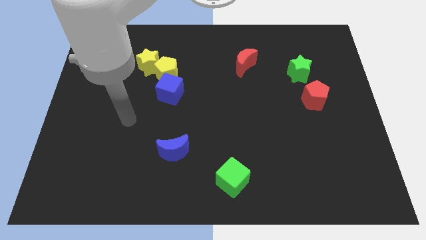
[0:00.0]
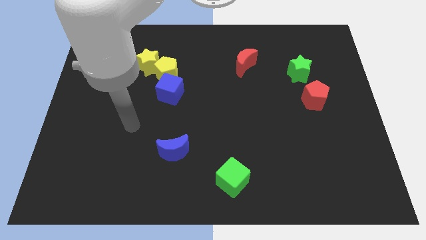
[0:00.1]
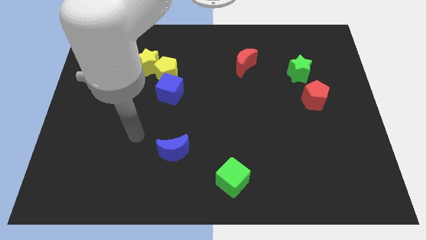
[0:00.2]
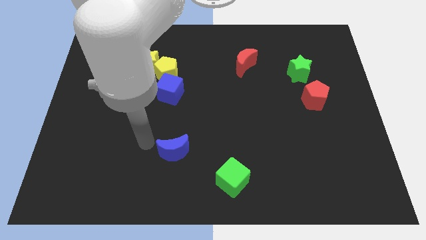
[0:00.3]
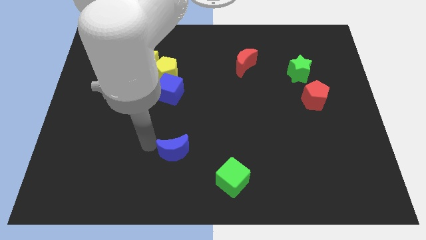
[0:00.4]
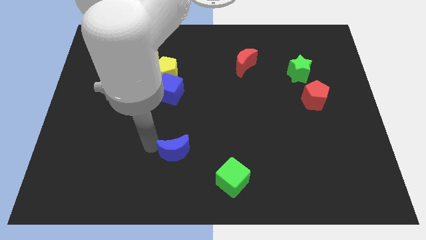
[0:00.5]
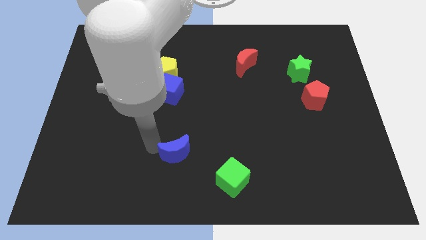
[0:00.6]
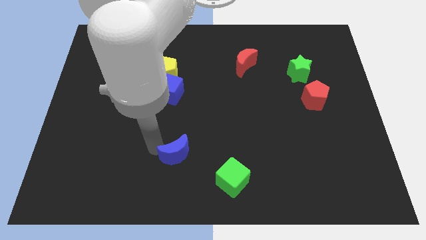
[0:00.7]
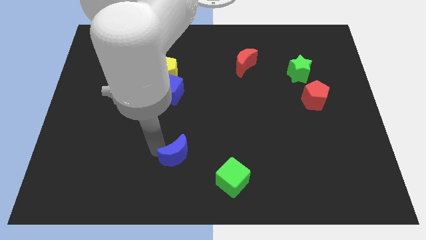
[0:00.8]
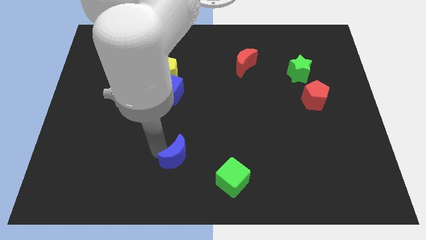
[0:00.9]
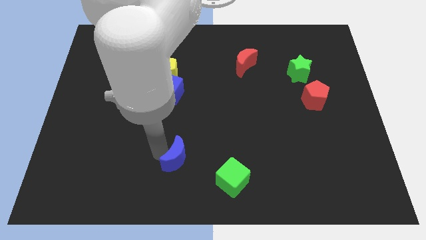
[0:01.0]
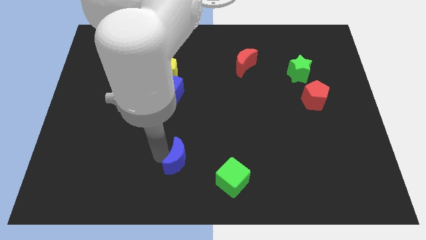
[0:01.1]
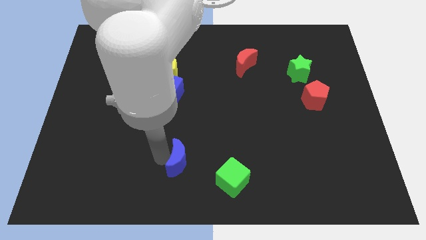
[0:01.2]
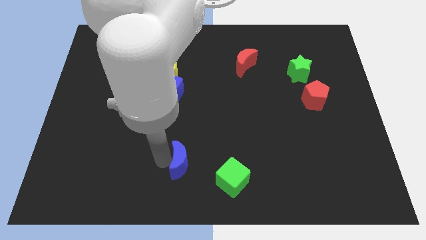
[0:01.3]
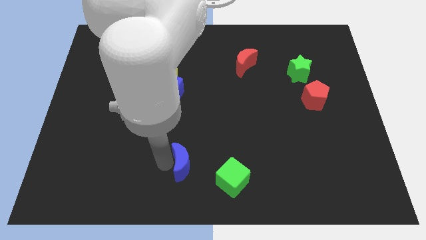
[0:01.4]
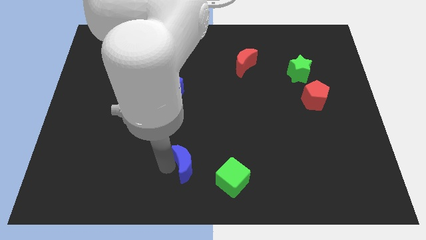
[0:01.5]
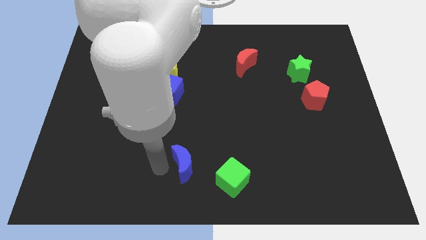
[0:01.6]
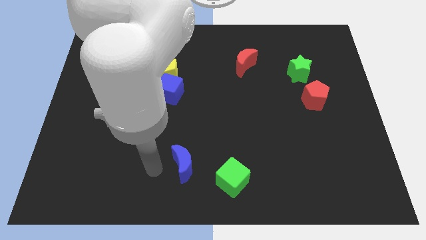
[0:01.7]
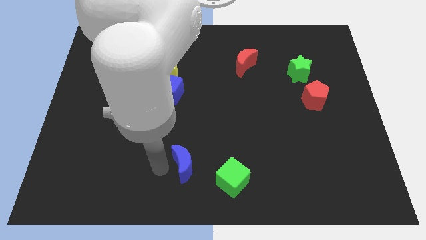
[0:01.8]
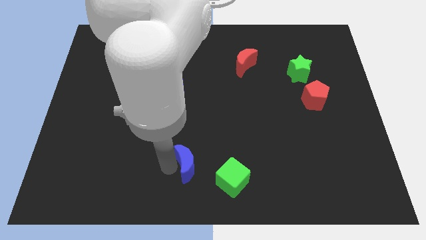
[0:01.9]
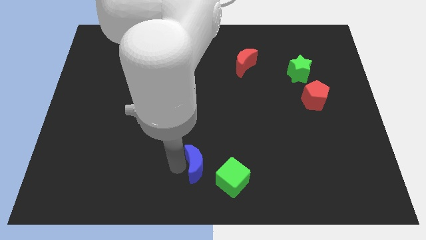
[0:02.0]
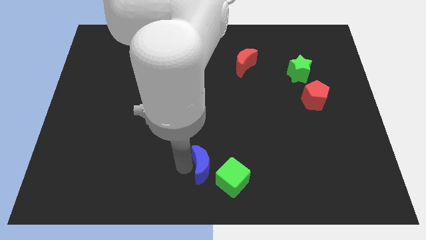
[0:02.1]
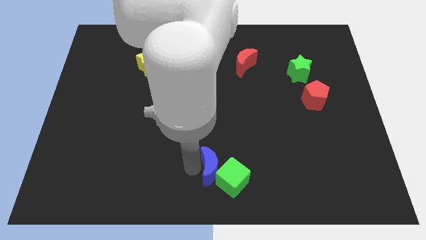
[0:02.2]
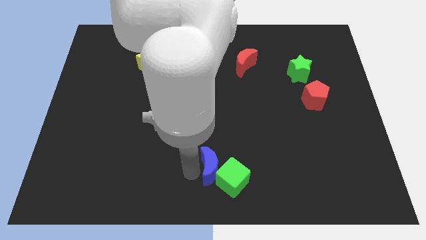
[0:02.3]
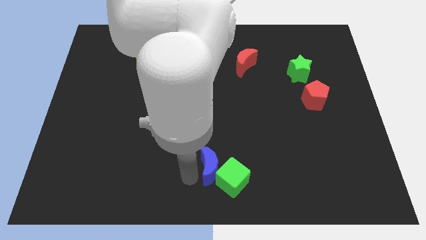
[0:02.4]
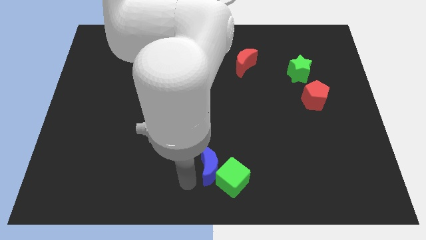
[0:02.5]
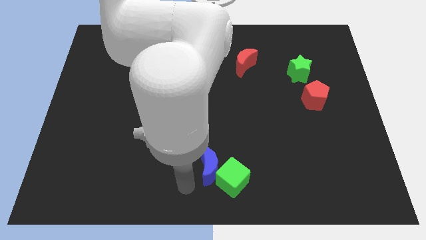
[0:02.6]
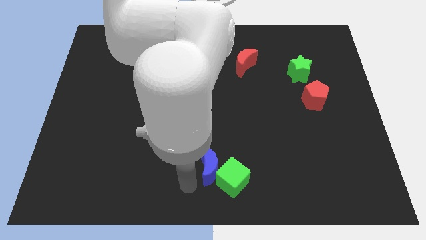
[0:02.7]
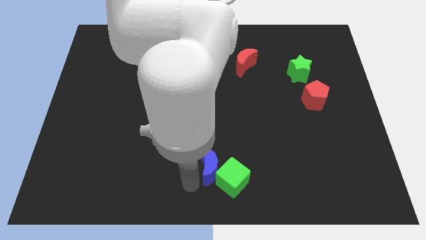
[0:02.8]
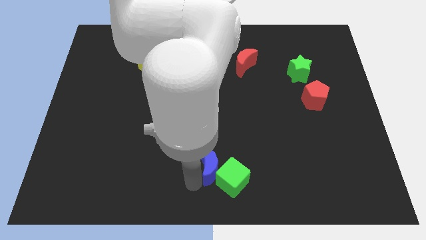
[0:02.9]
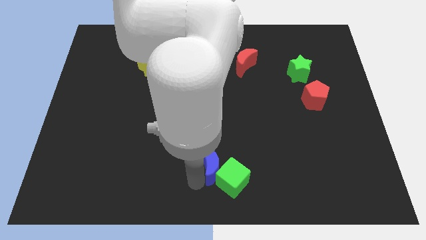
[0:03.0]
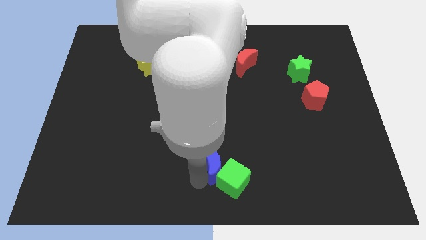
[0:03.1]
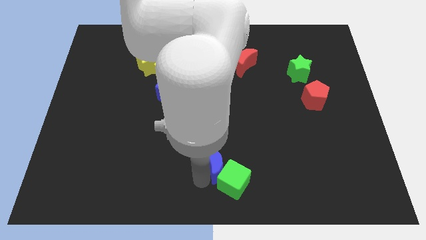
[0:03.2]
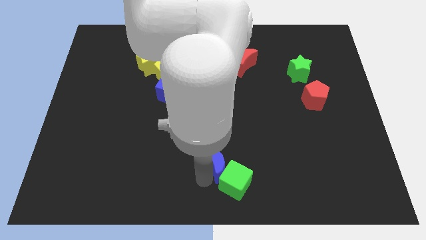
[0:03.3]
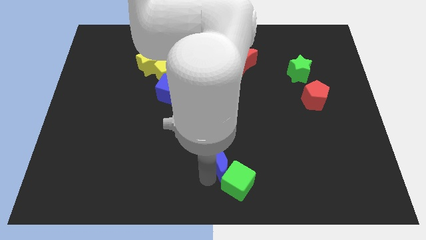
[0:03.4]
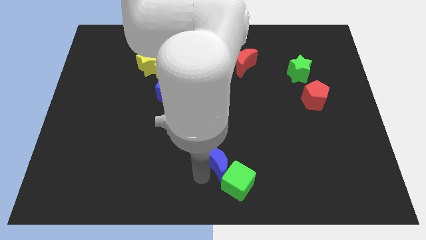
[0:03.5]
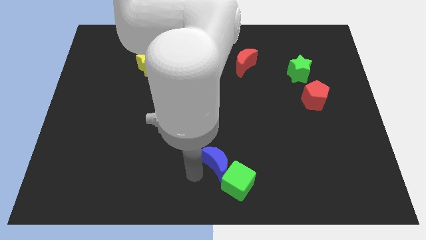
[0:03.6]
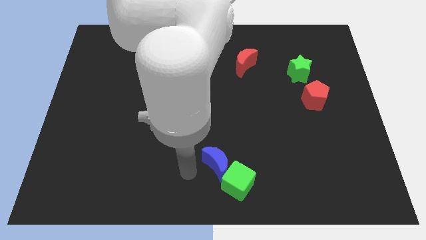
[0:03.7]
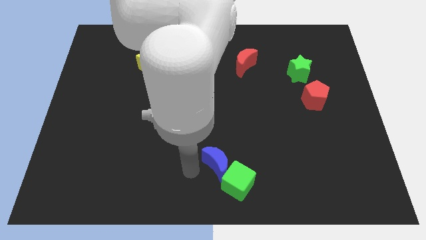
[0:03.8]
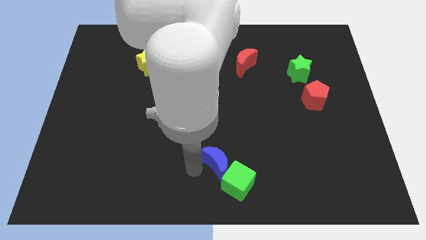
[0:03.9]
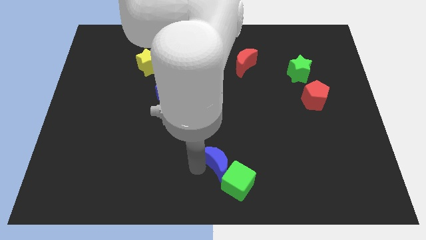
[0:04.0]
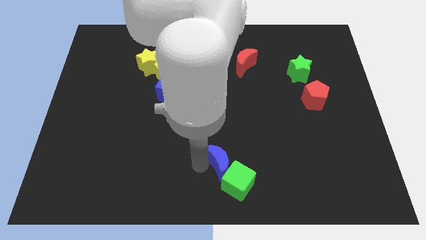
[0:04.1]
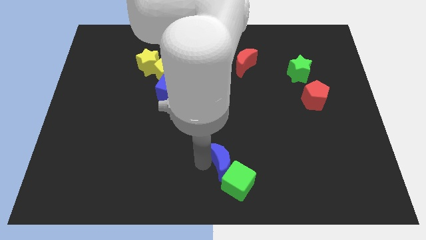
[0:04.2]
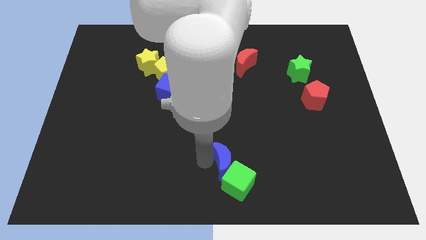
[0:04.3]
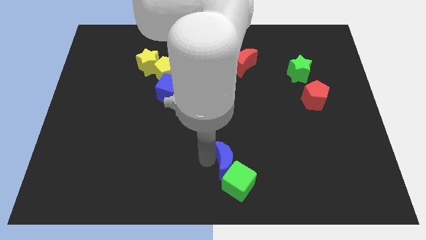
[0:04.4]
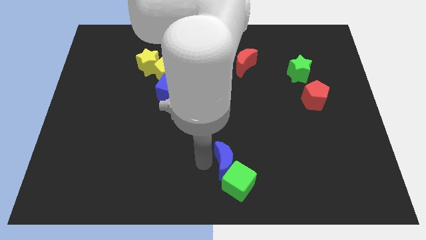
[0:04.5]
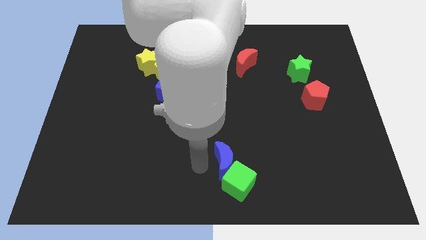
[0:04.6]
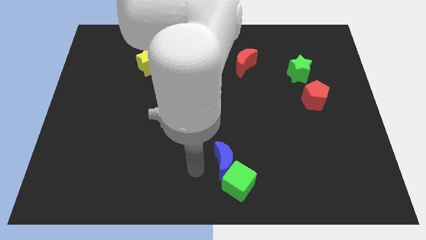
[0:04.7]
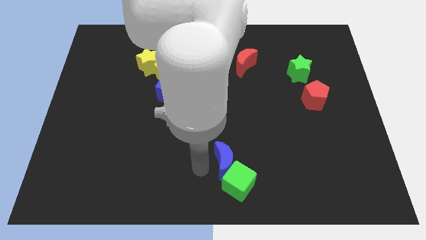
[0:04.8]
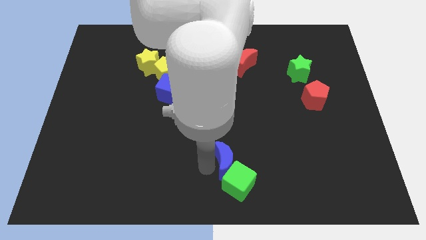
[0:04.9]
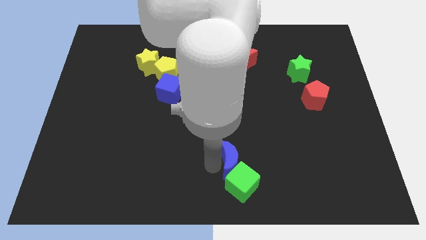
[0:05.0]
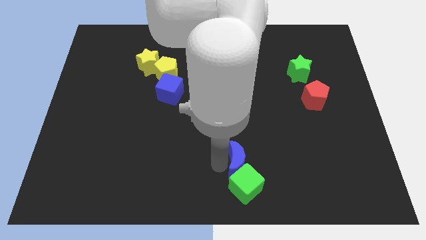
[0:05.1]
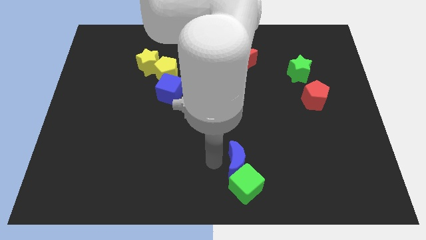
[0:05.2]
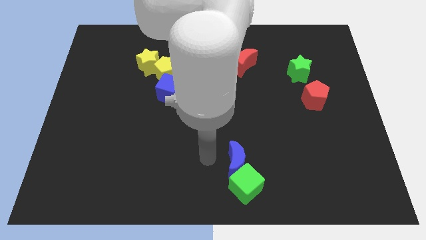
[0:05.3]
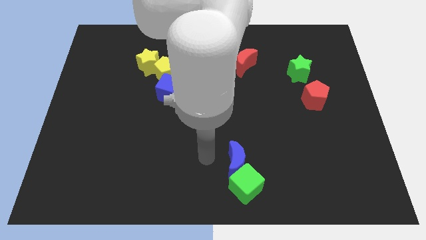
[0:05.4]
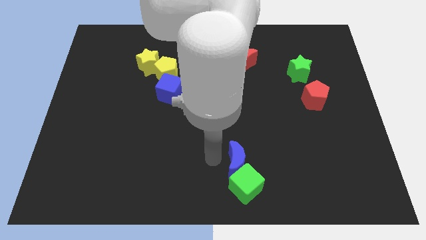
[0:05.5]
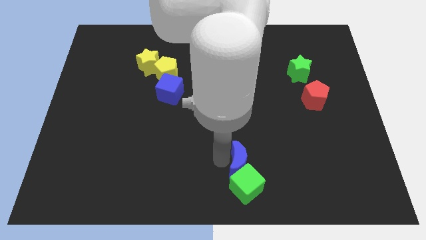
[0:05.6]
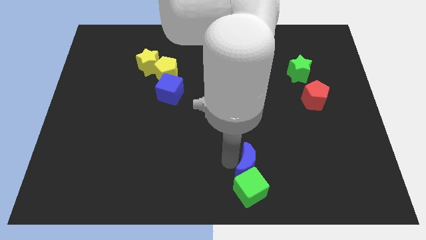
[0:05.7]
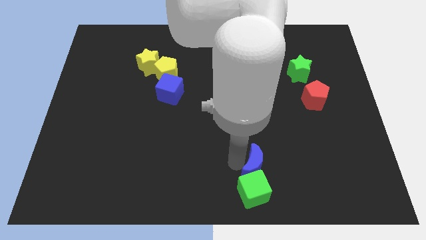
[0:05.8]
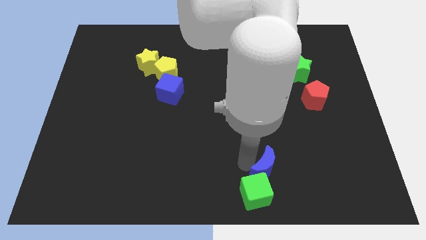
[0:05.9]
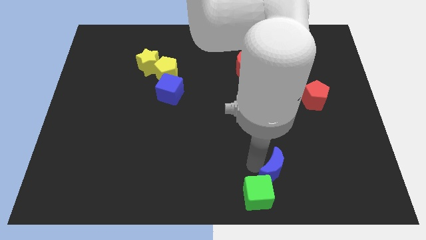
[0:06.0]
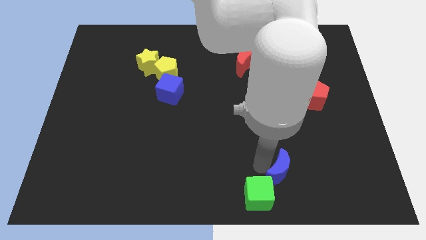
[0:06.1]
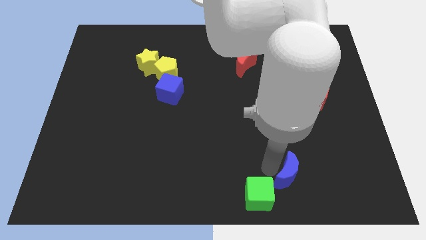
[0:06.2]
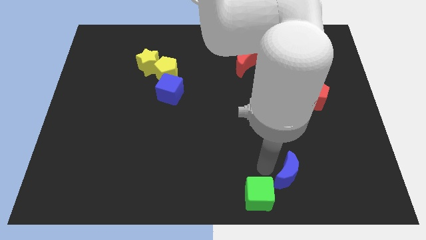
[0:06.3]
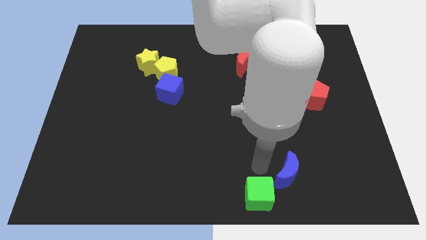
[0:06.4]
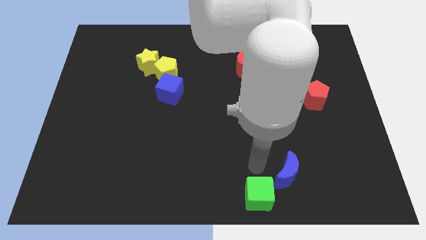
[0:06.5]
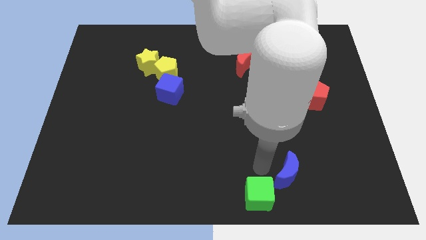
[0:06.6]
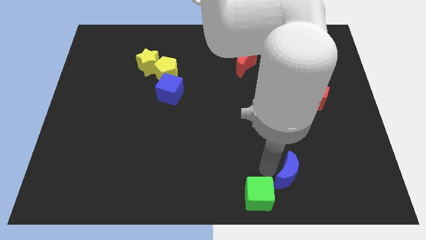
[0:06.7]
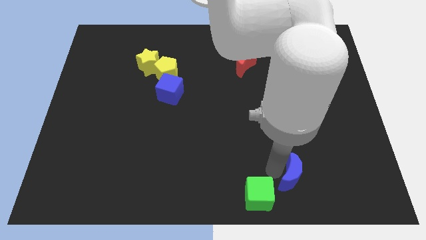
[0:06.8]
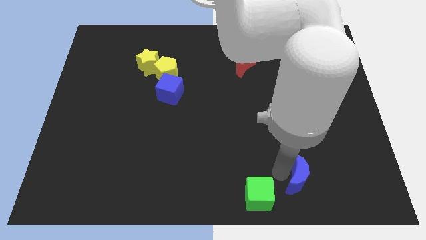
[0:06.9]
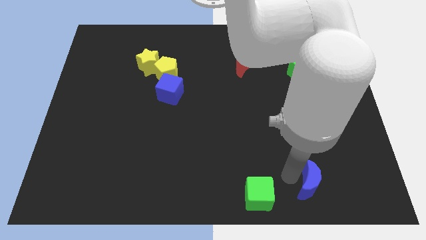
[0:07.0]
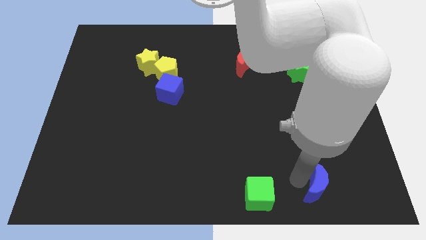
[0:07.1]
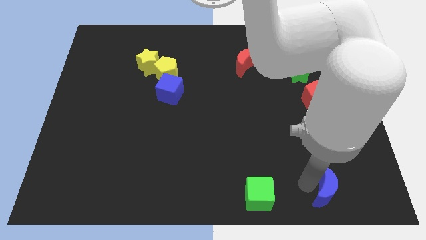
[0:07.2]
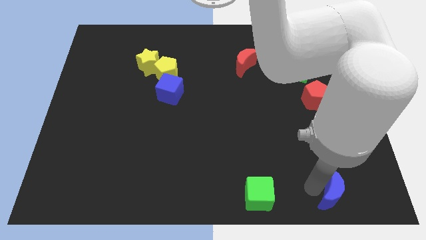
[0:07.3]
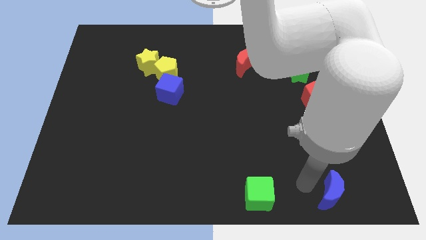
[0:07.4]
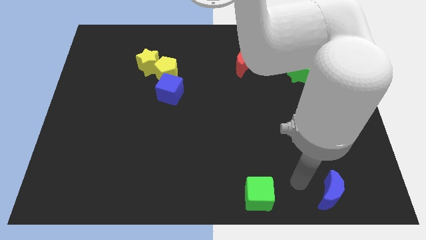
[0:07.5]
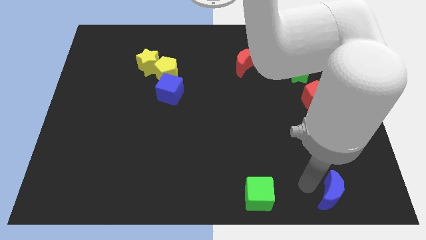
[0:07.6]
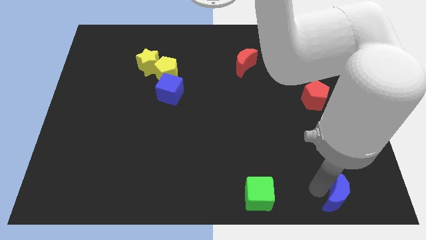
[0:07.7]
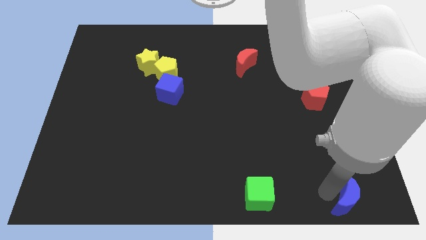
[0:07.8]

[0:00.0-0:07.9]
slide the blue moon to the bottom right
